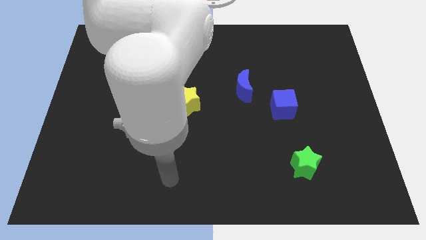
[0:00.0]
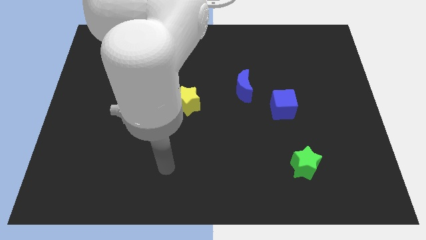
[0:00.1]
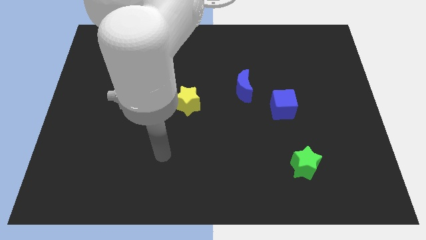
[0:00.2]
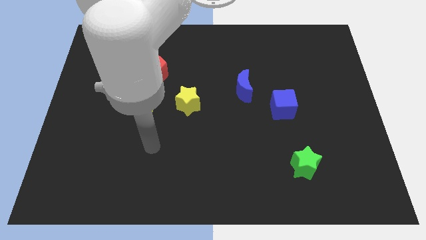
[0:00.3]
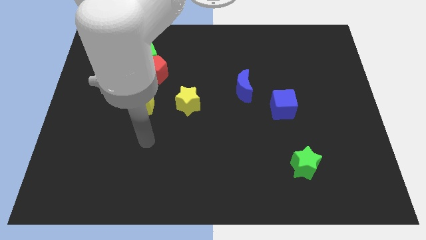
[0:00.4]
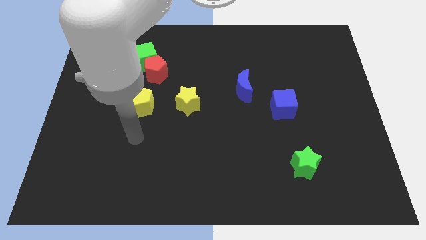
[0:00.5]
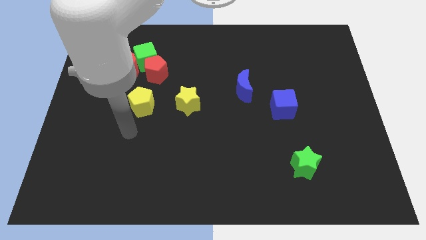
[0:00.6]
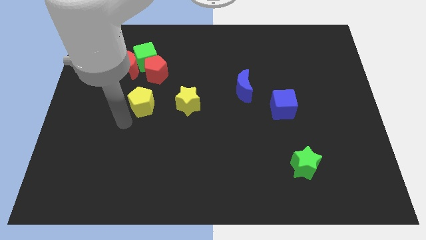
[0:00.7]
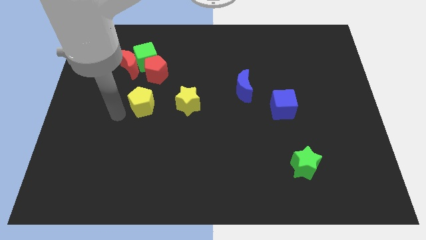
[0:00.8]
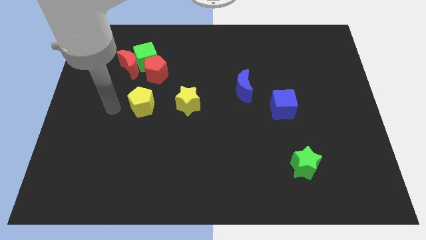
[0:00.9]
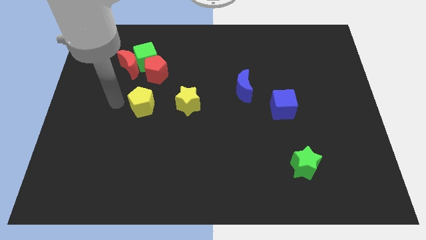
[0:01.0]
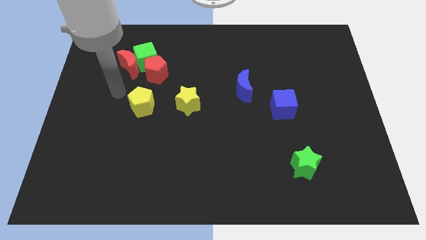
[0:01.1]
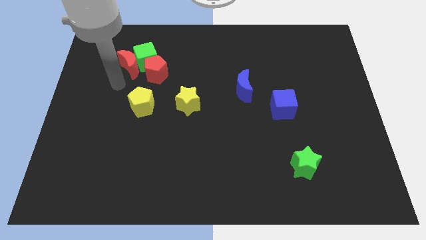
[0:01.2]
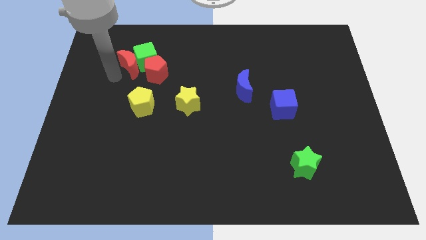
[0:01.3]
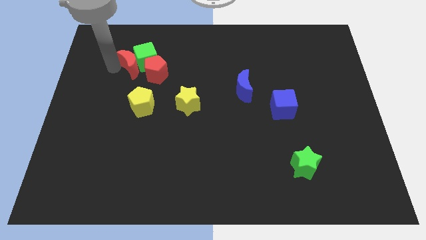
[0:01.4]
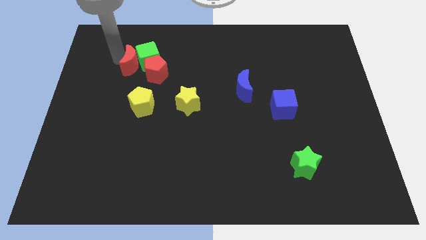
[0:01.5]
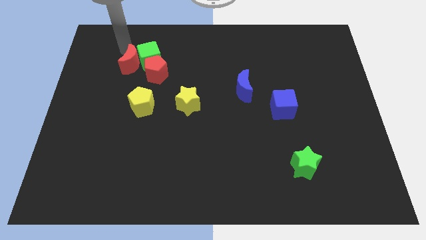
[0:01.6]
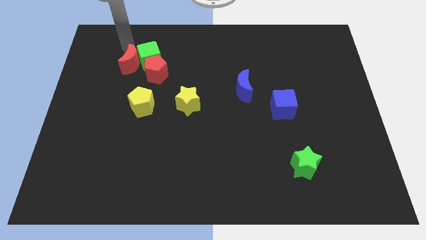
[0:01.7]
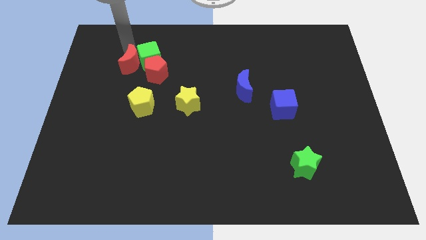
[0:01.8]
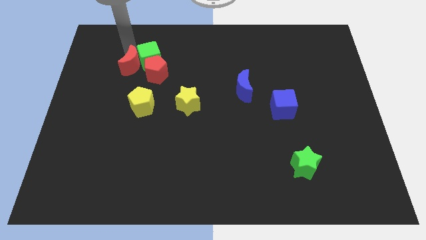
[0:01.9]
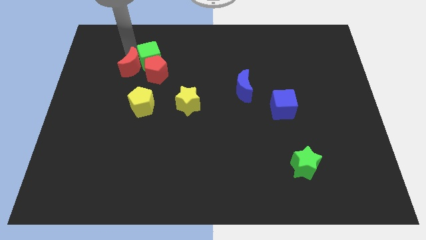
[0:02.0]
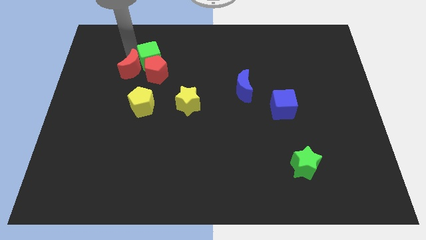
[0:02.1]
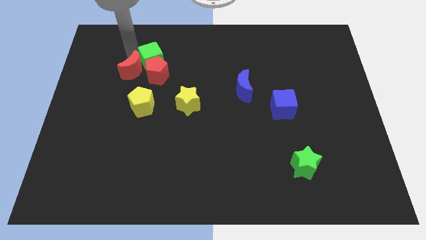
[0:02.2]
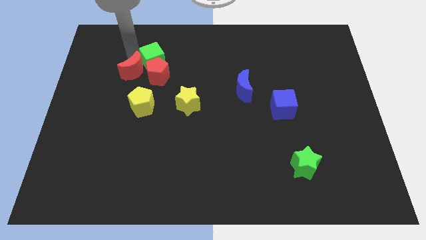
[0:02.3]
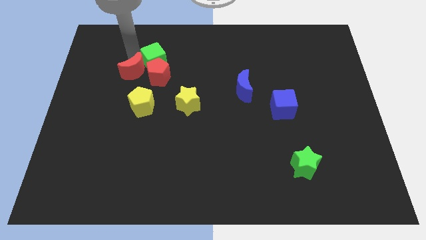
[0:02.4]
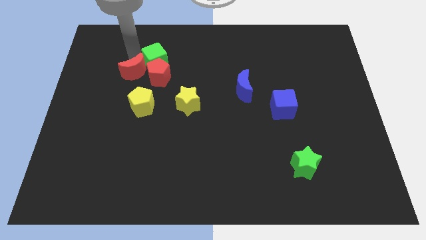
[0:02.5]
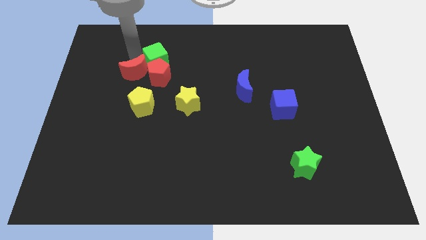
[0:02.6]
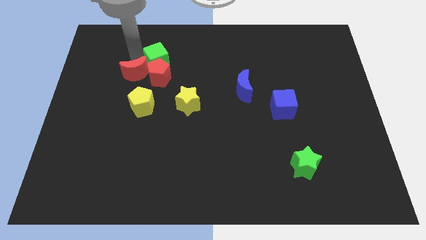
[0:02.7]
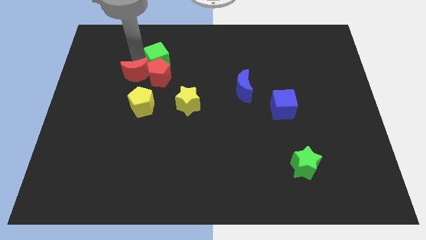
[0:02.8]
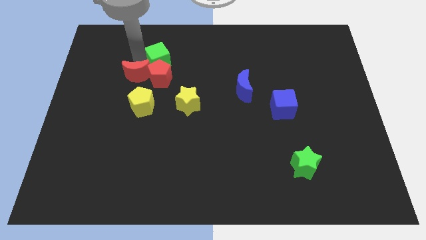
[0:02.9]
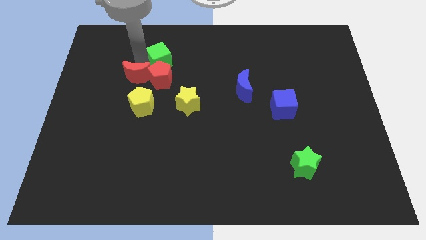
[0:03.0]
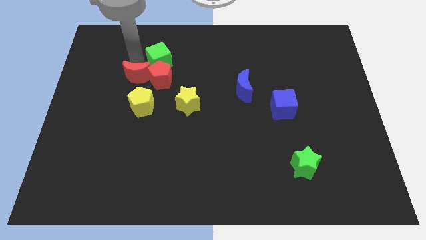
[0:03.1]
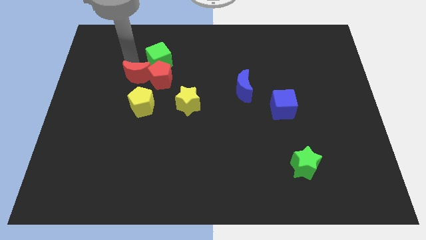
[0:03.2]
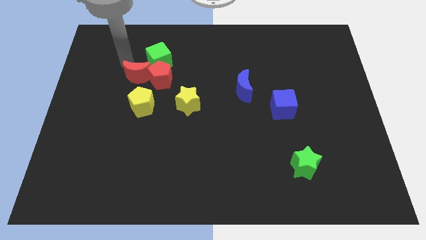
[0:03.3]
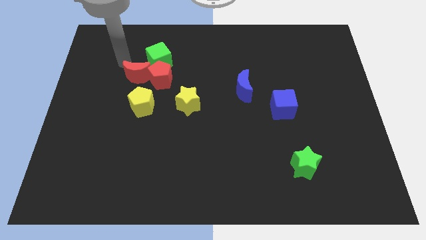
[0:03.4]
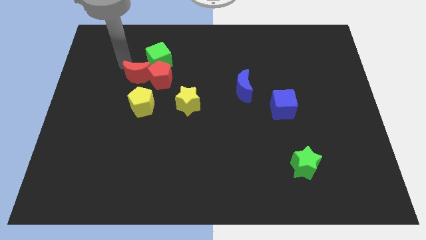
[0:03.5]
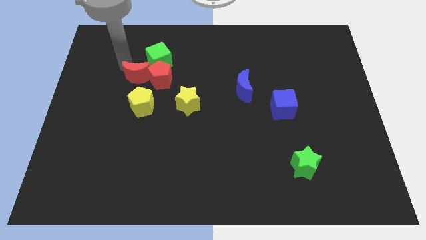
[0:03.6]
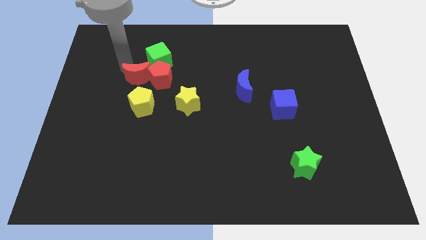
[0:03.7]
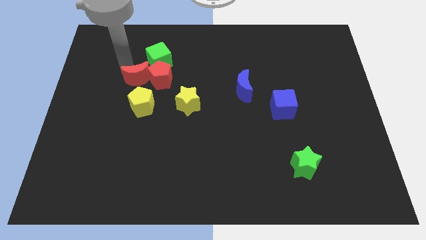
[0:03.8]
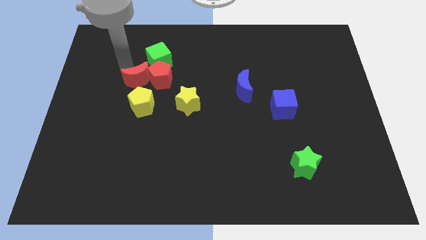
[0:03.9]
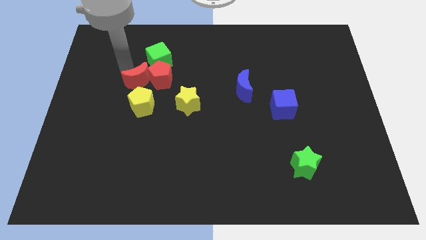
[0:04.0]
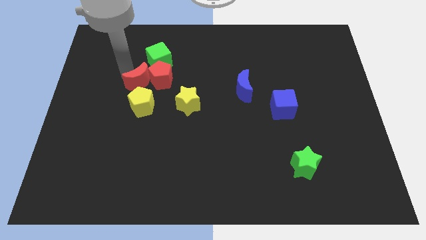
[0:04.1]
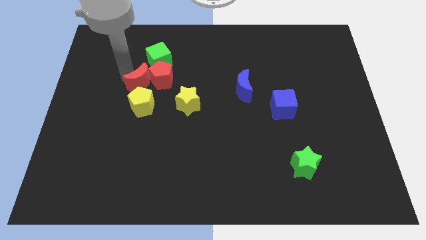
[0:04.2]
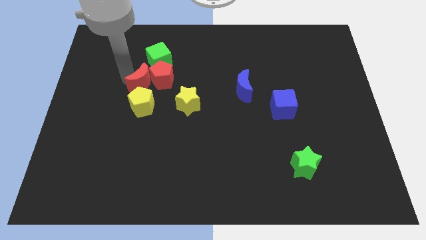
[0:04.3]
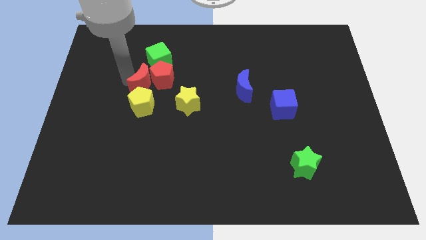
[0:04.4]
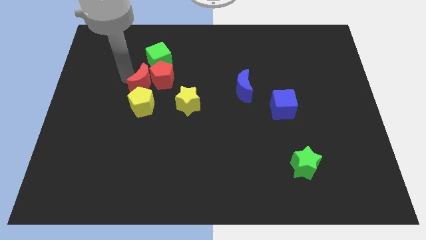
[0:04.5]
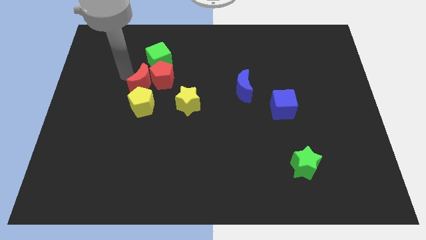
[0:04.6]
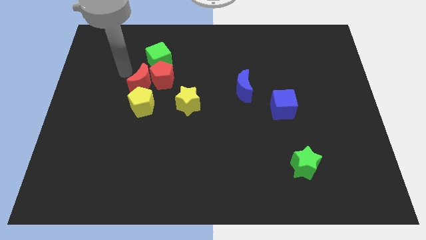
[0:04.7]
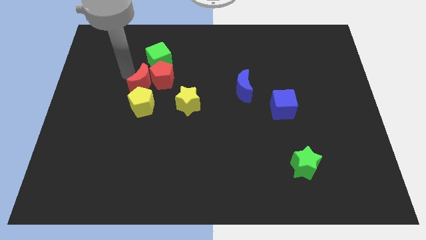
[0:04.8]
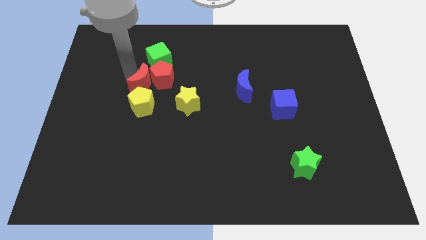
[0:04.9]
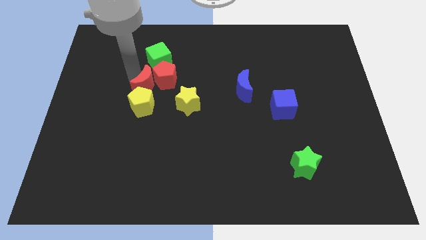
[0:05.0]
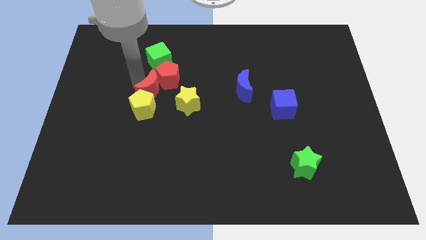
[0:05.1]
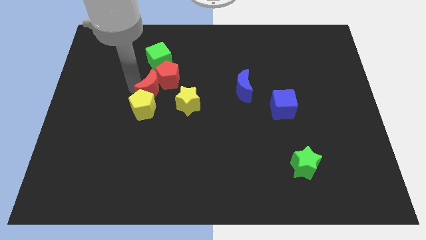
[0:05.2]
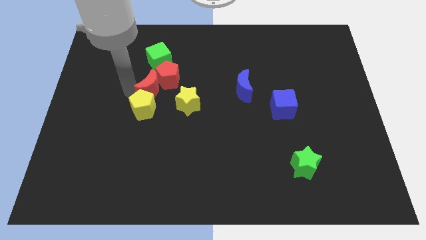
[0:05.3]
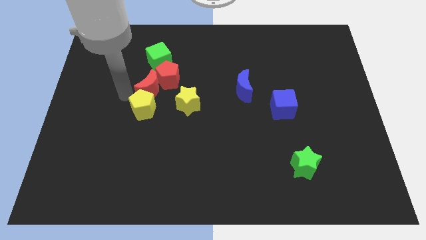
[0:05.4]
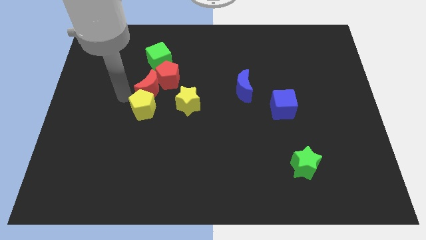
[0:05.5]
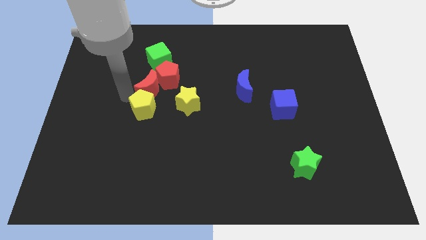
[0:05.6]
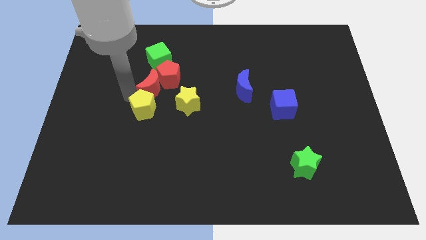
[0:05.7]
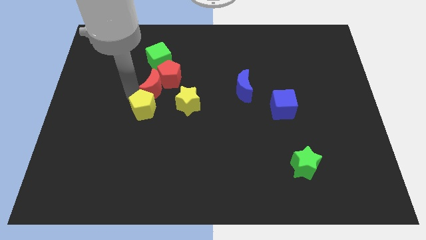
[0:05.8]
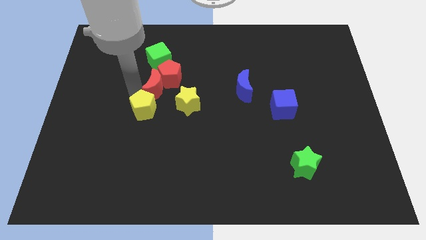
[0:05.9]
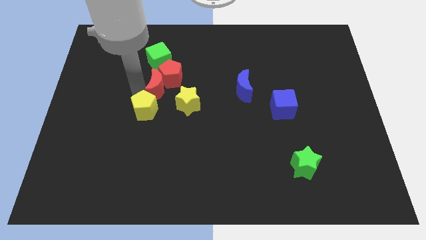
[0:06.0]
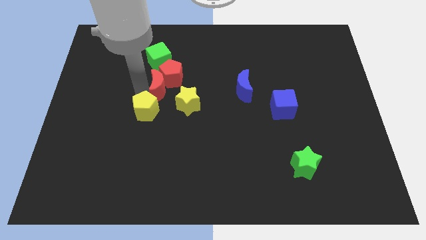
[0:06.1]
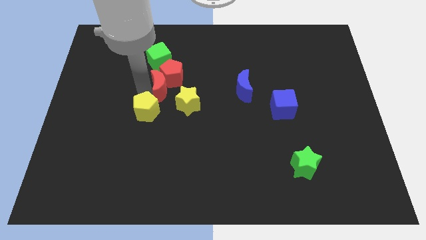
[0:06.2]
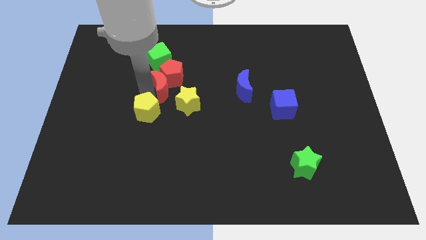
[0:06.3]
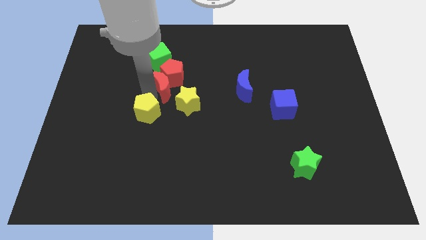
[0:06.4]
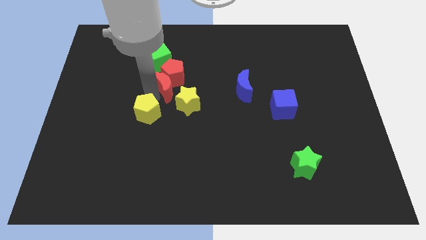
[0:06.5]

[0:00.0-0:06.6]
slide the red moon a little bit right

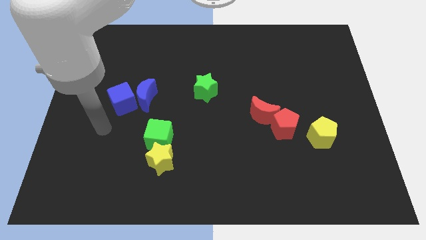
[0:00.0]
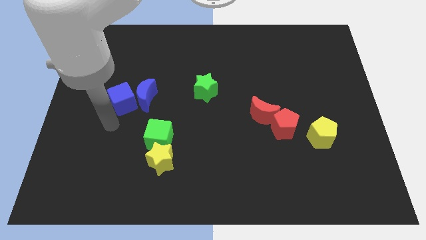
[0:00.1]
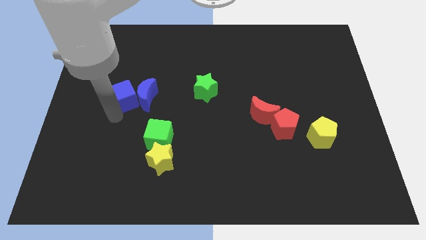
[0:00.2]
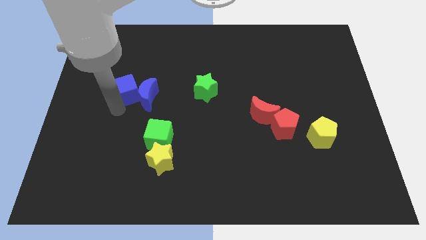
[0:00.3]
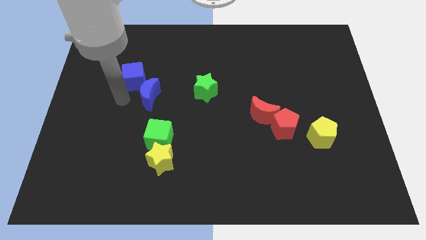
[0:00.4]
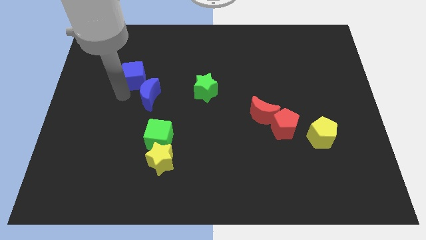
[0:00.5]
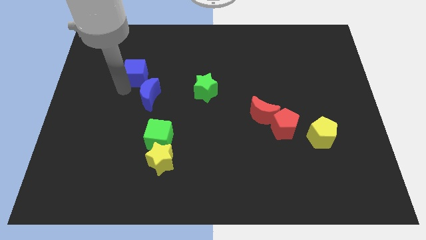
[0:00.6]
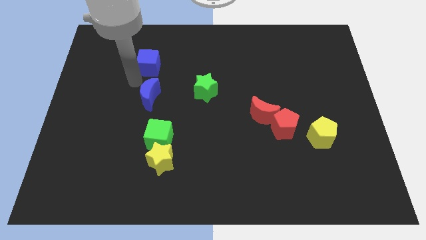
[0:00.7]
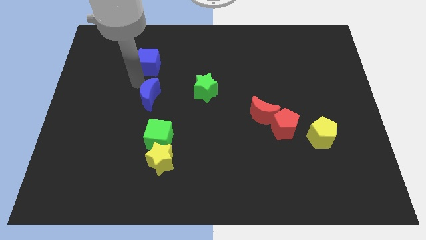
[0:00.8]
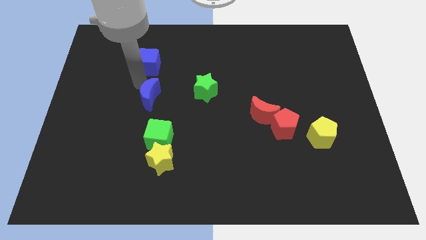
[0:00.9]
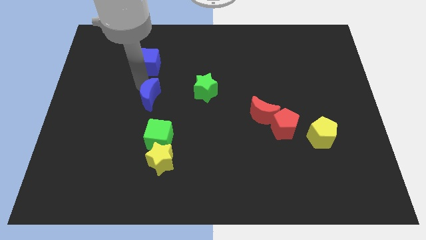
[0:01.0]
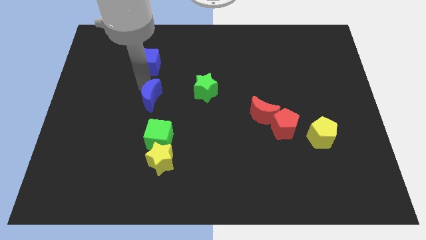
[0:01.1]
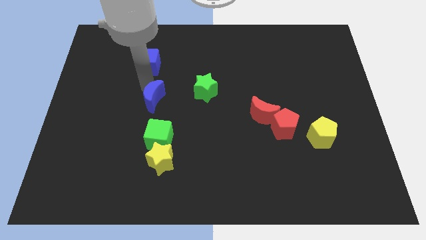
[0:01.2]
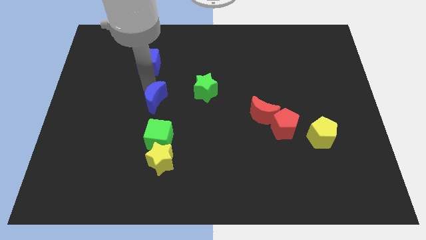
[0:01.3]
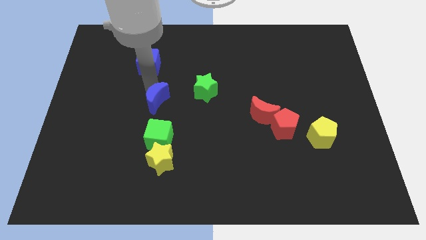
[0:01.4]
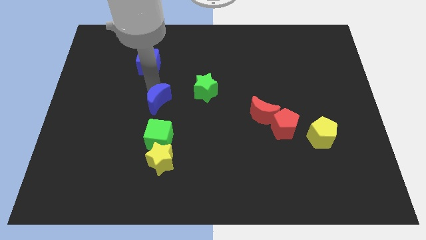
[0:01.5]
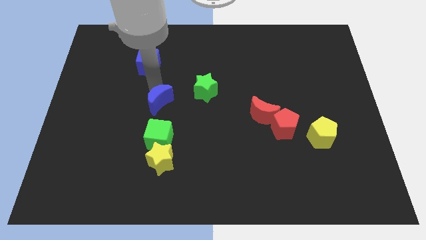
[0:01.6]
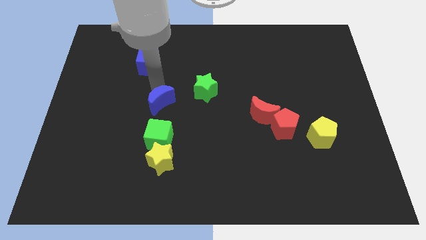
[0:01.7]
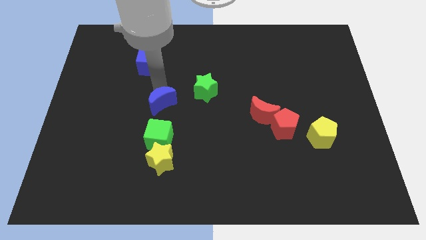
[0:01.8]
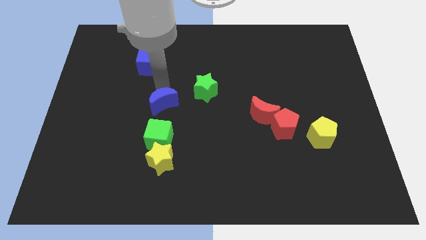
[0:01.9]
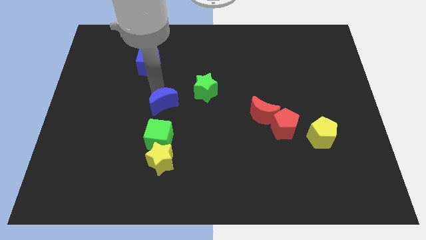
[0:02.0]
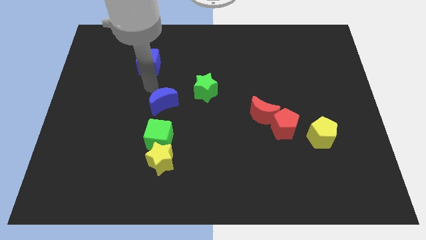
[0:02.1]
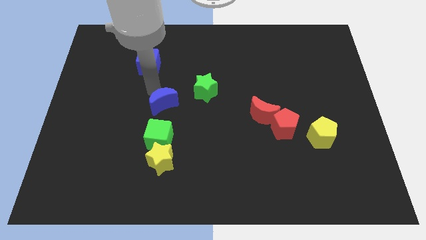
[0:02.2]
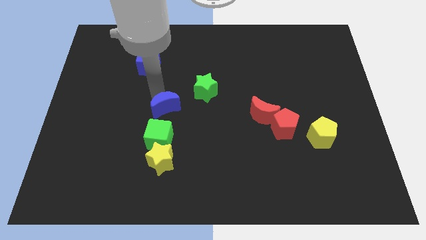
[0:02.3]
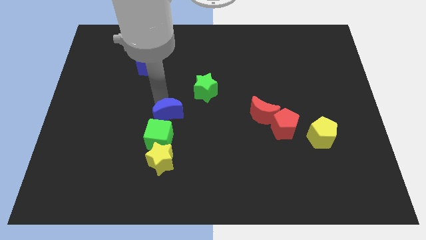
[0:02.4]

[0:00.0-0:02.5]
slightly slide the blue moon down and to the right
